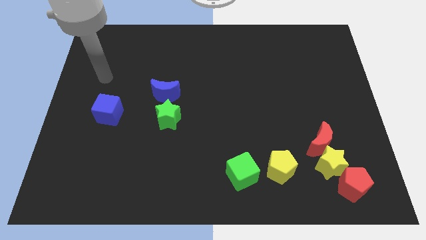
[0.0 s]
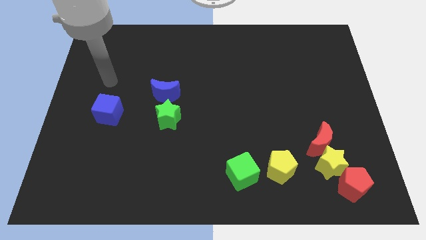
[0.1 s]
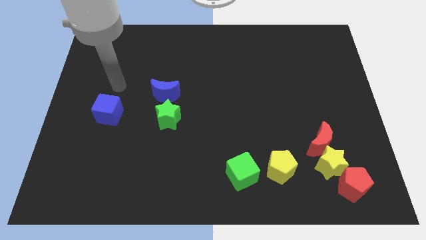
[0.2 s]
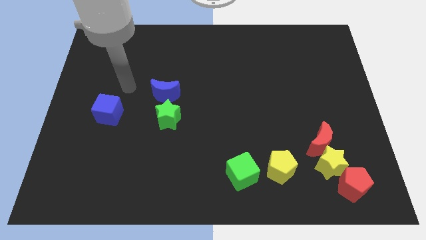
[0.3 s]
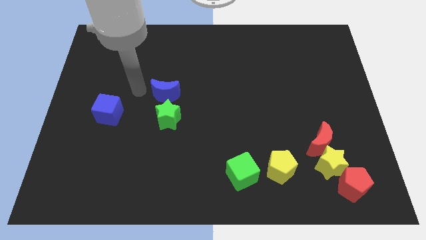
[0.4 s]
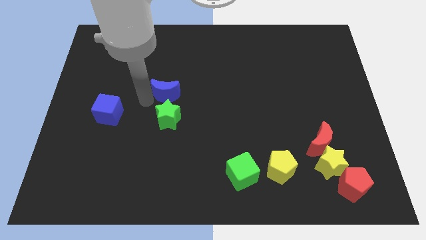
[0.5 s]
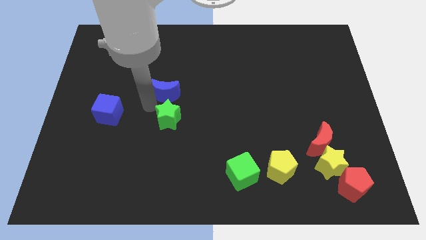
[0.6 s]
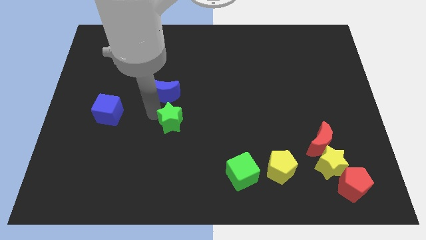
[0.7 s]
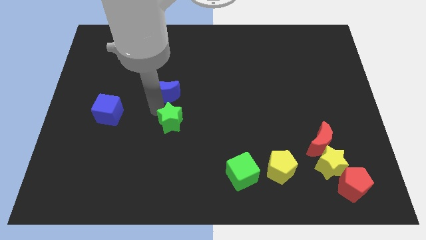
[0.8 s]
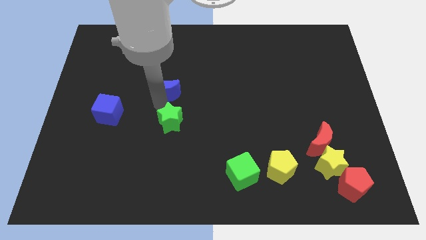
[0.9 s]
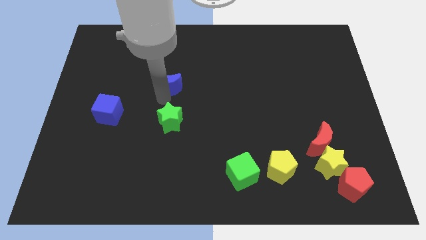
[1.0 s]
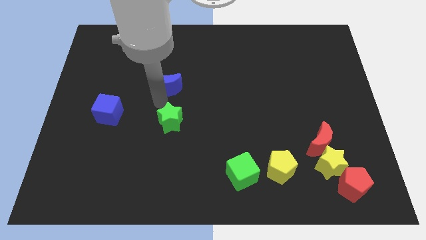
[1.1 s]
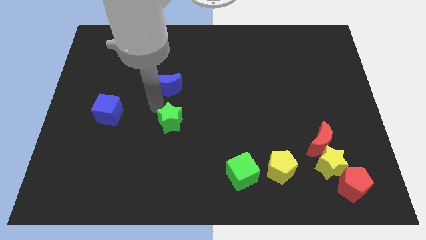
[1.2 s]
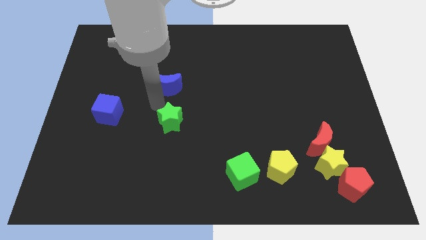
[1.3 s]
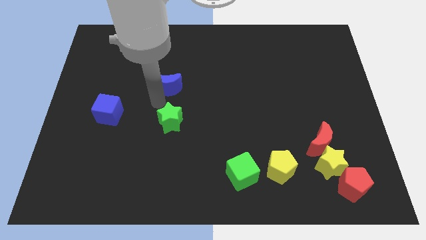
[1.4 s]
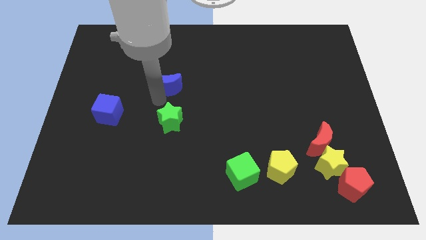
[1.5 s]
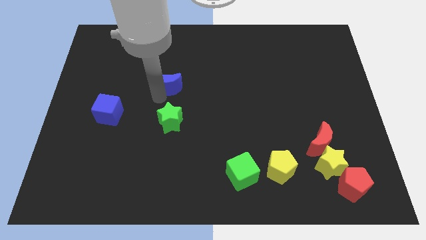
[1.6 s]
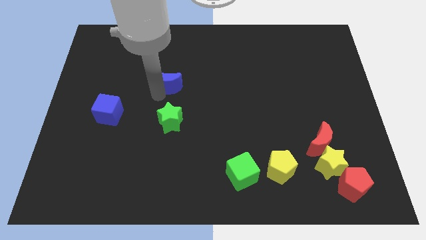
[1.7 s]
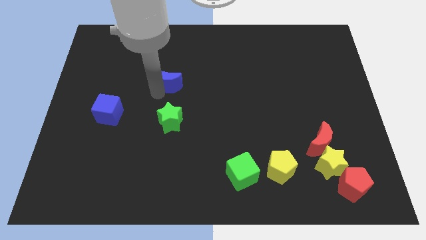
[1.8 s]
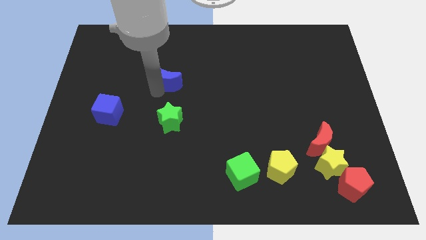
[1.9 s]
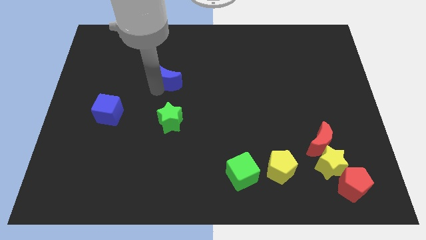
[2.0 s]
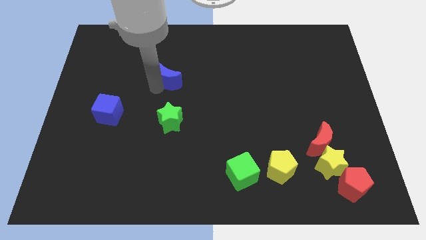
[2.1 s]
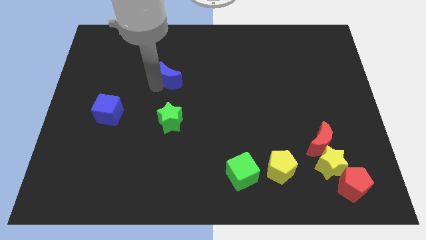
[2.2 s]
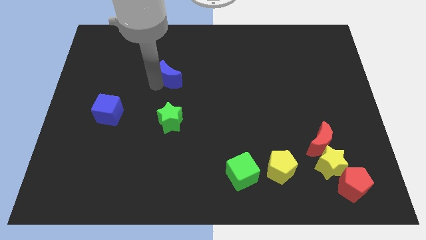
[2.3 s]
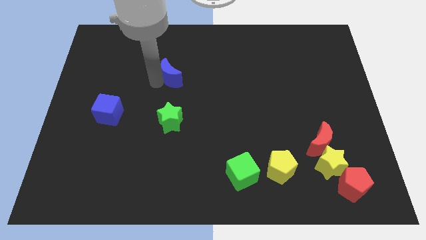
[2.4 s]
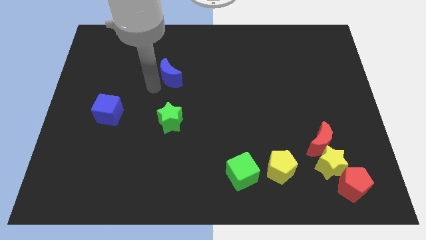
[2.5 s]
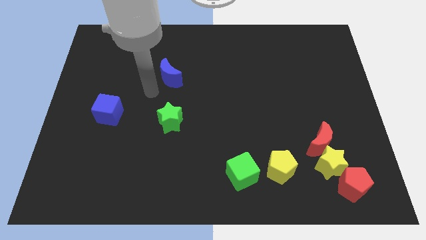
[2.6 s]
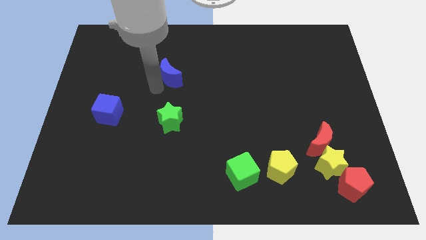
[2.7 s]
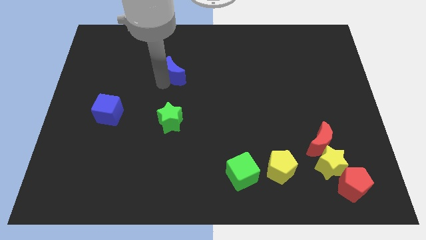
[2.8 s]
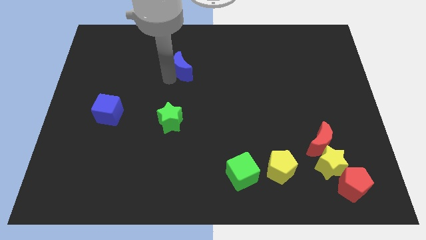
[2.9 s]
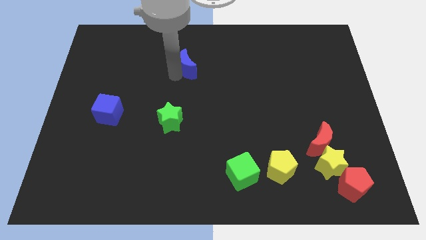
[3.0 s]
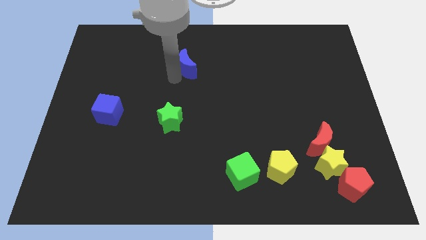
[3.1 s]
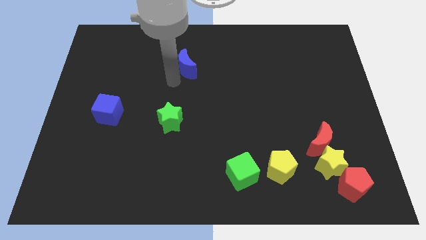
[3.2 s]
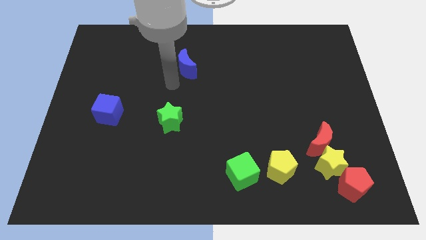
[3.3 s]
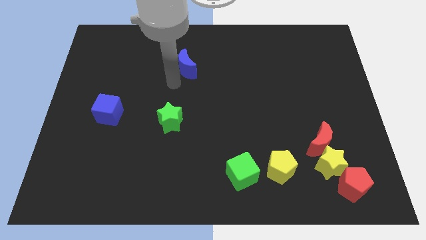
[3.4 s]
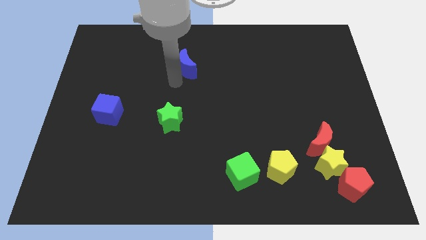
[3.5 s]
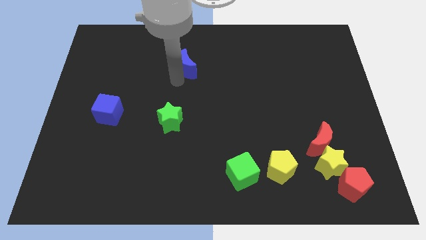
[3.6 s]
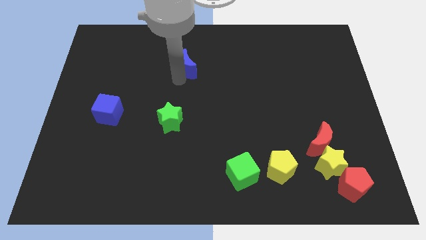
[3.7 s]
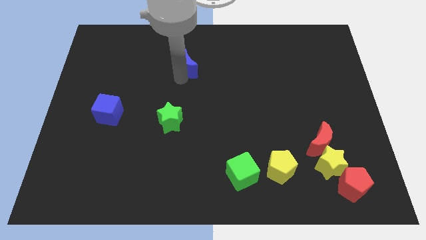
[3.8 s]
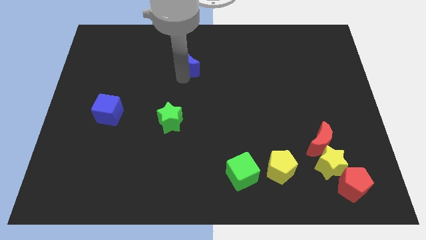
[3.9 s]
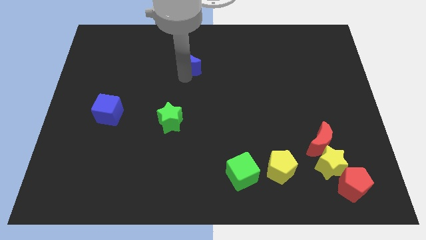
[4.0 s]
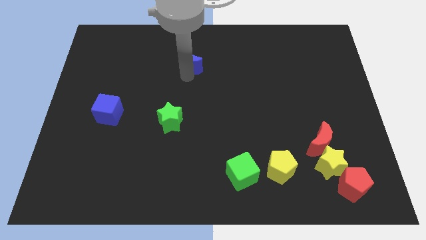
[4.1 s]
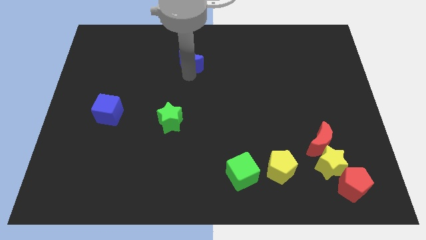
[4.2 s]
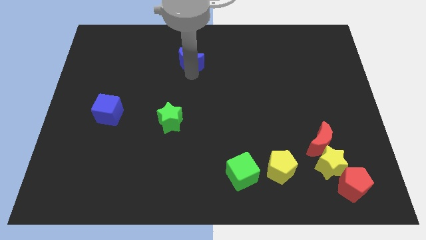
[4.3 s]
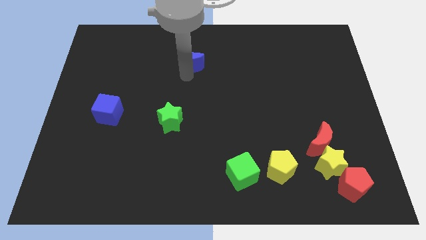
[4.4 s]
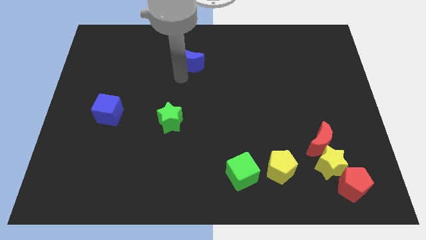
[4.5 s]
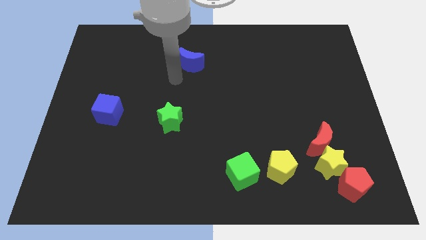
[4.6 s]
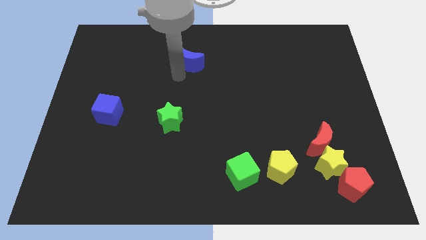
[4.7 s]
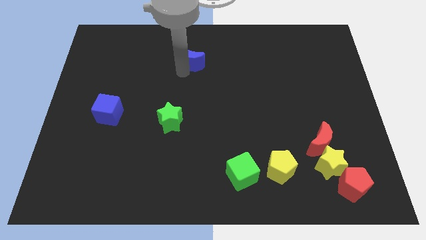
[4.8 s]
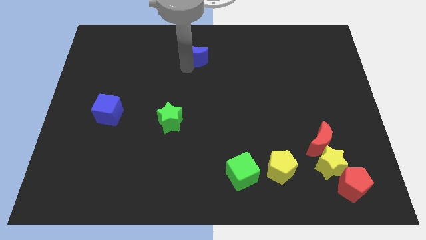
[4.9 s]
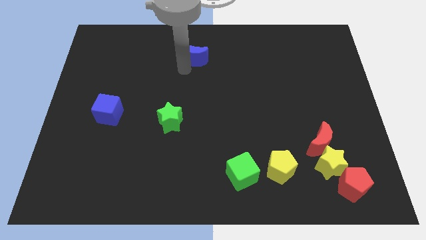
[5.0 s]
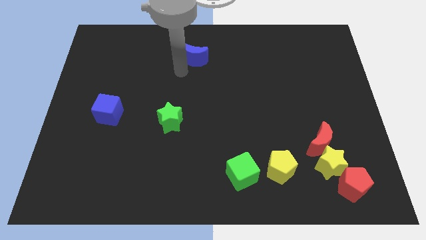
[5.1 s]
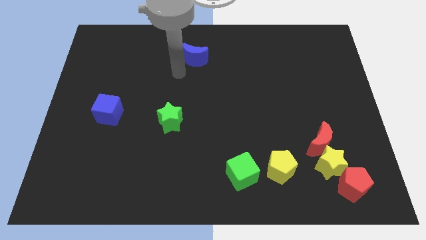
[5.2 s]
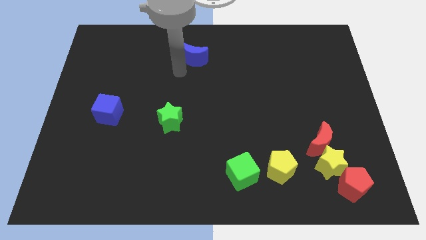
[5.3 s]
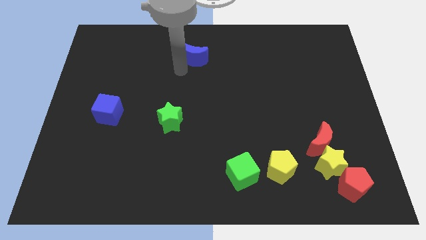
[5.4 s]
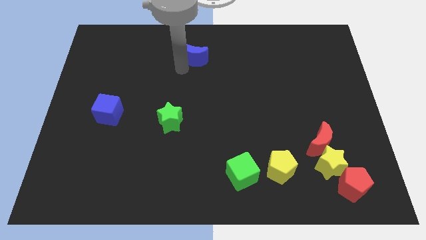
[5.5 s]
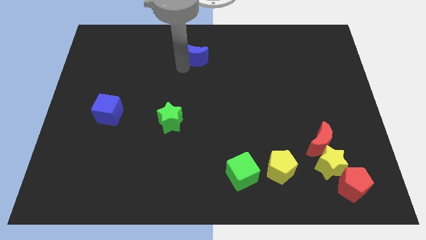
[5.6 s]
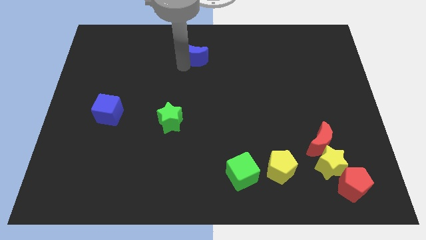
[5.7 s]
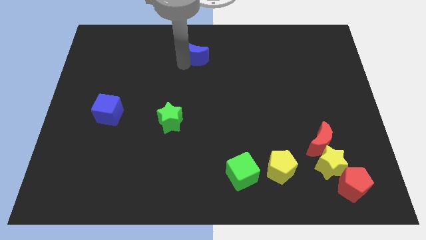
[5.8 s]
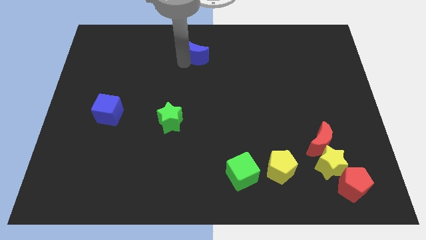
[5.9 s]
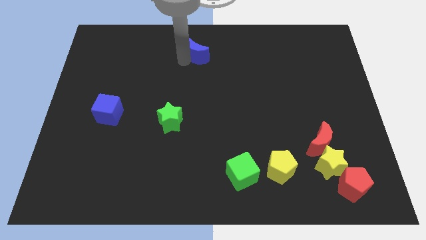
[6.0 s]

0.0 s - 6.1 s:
push the blue moon to the top

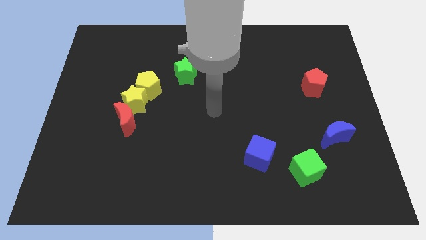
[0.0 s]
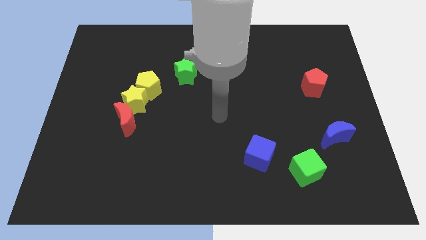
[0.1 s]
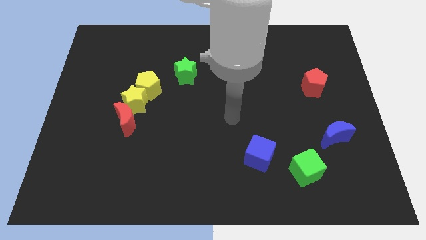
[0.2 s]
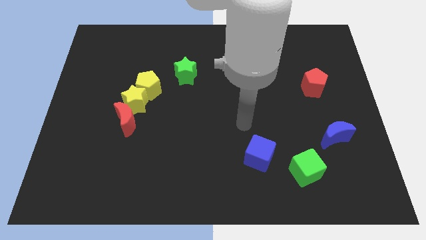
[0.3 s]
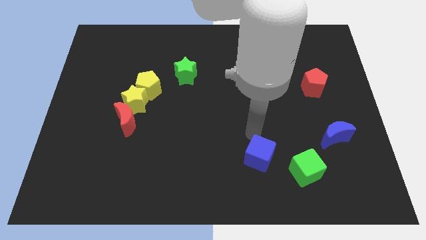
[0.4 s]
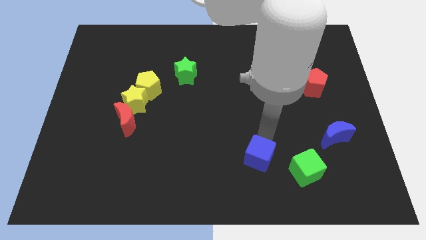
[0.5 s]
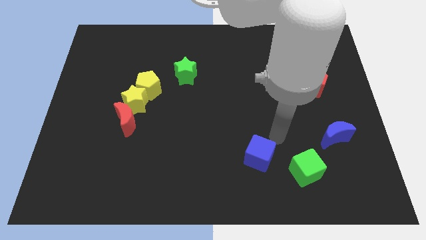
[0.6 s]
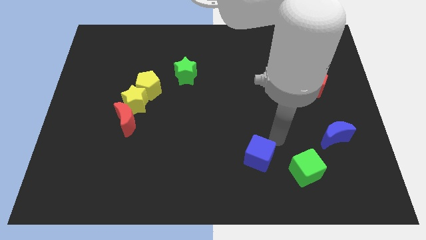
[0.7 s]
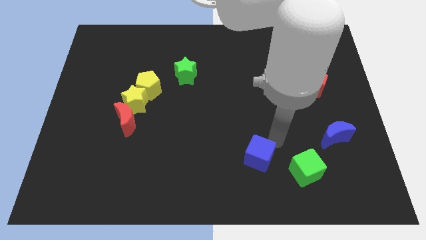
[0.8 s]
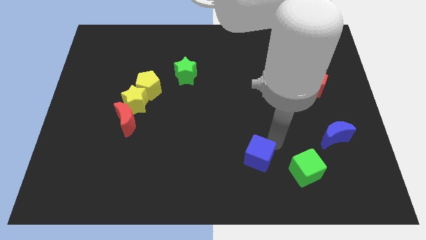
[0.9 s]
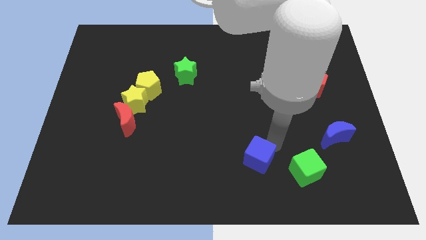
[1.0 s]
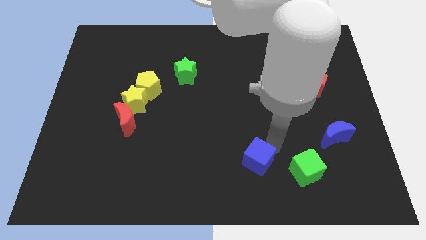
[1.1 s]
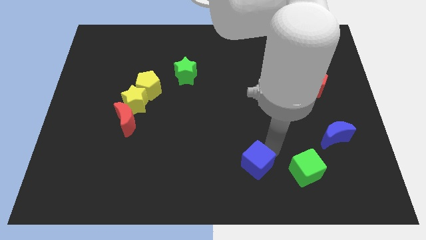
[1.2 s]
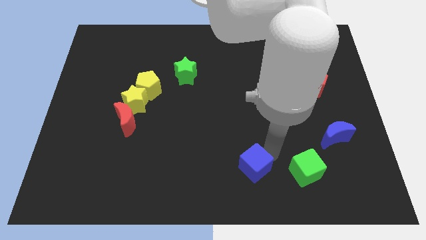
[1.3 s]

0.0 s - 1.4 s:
move the blue cube to the bottom
